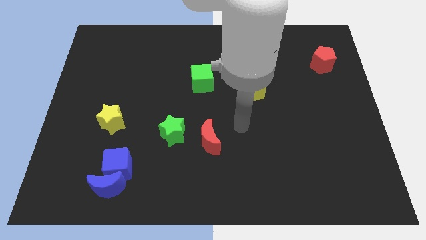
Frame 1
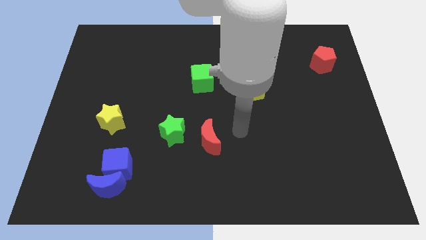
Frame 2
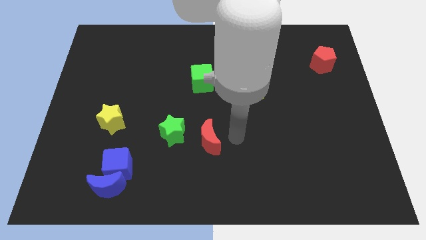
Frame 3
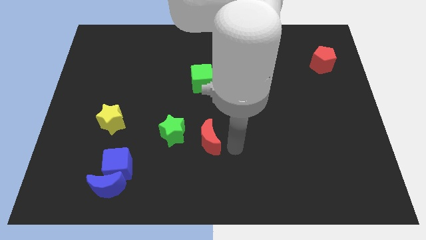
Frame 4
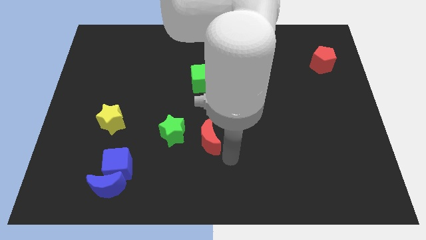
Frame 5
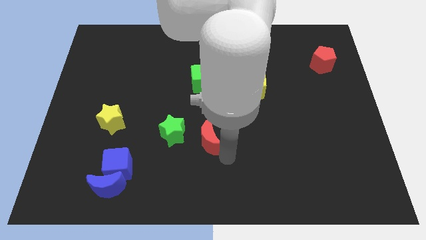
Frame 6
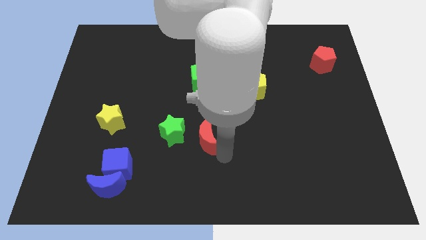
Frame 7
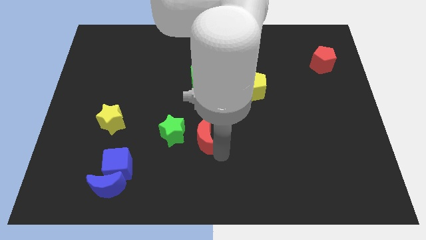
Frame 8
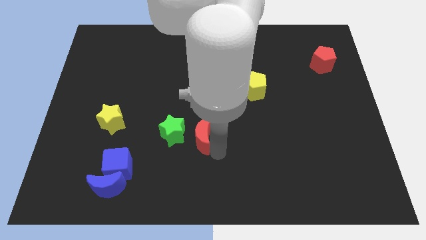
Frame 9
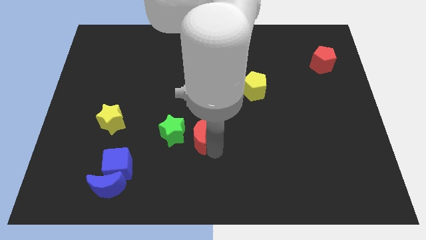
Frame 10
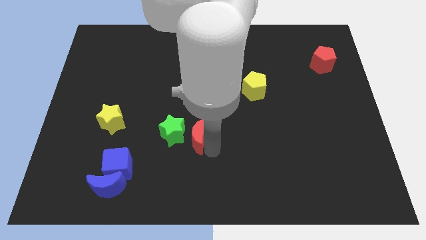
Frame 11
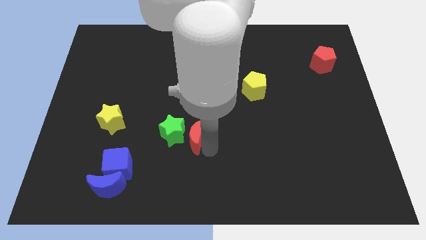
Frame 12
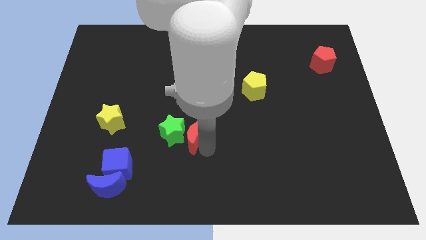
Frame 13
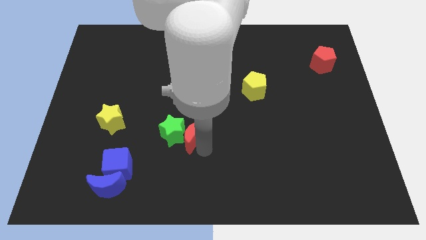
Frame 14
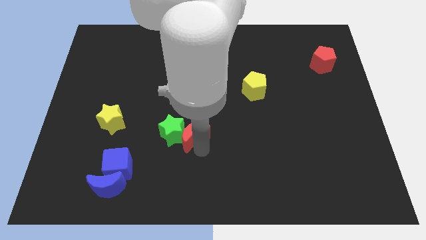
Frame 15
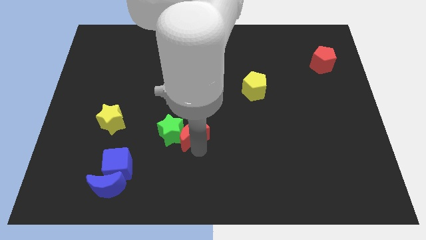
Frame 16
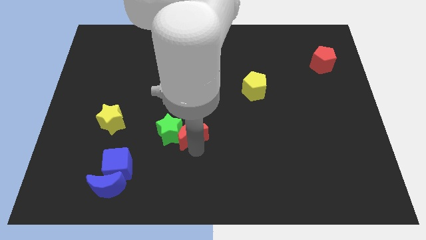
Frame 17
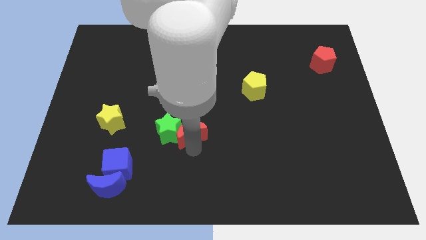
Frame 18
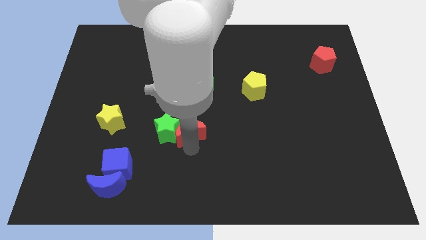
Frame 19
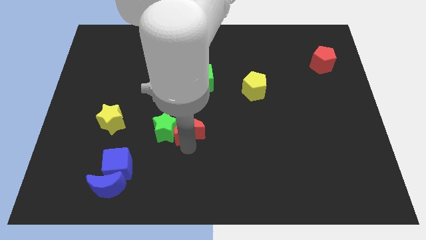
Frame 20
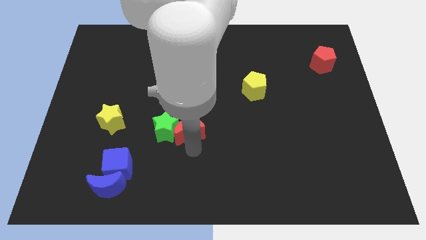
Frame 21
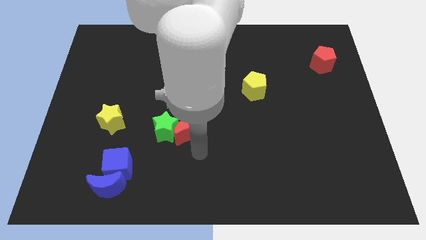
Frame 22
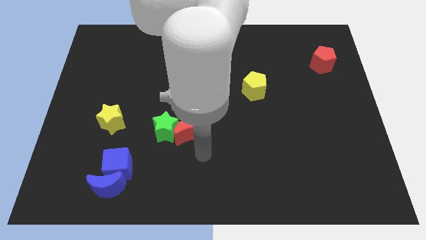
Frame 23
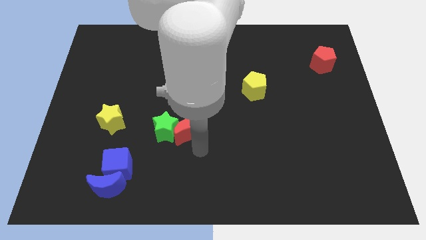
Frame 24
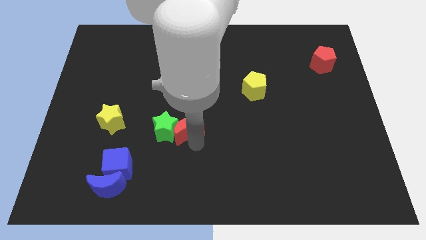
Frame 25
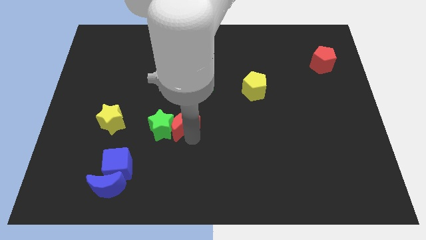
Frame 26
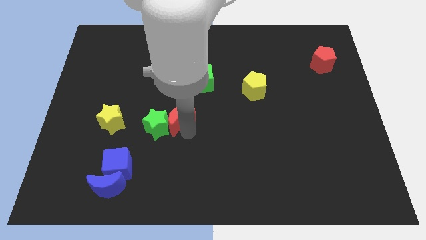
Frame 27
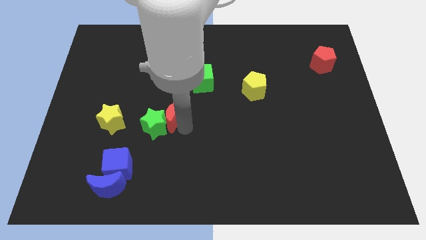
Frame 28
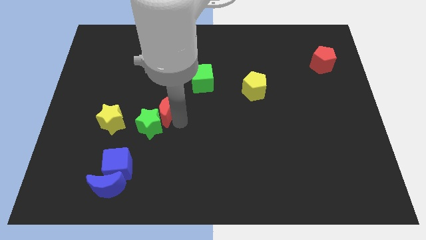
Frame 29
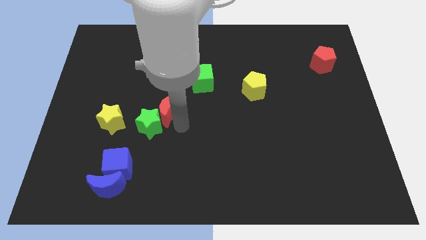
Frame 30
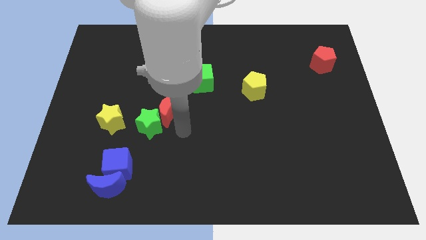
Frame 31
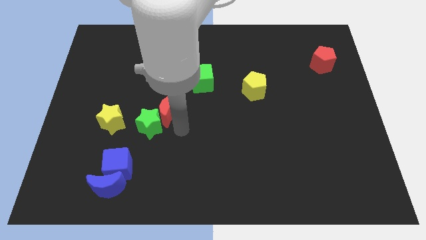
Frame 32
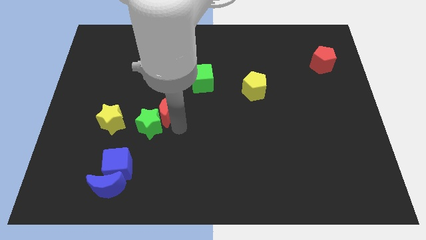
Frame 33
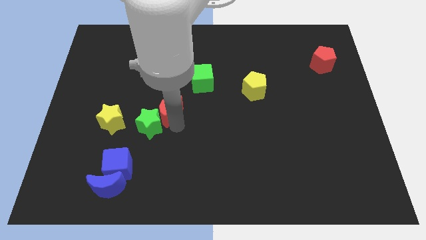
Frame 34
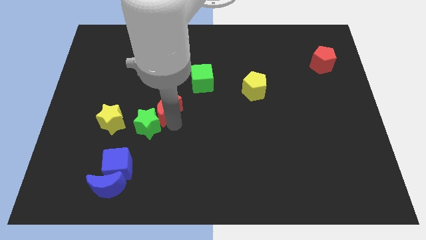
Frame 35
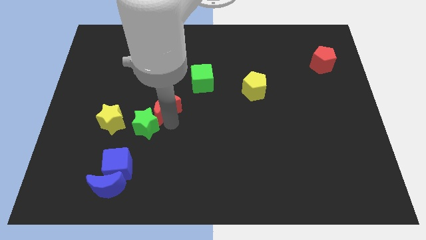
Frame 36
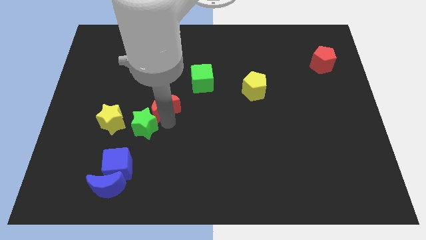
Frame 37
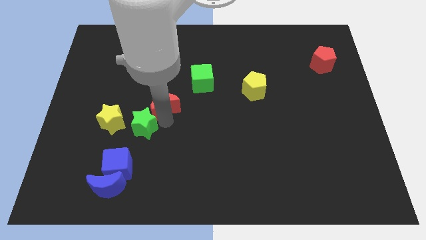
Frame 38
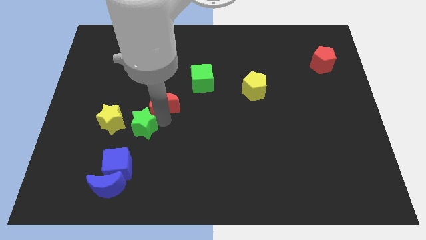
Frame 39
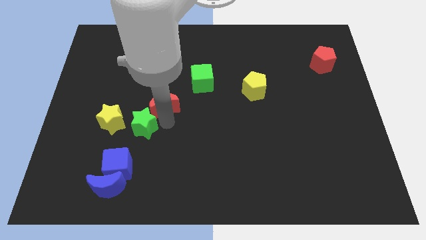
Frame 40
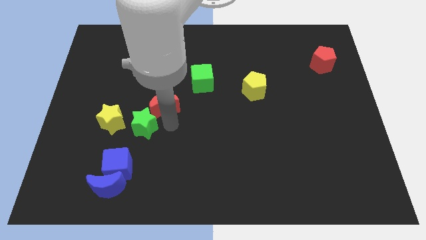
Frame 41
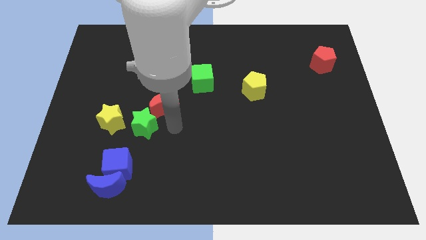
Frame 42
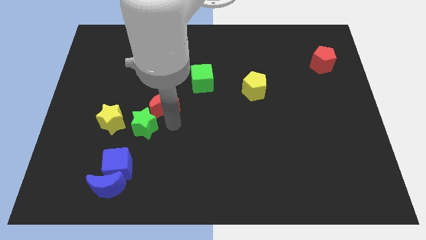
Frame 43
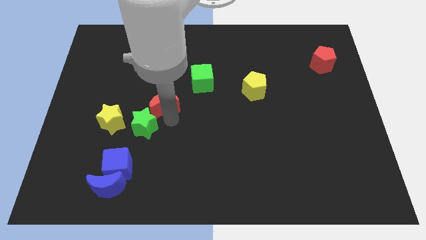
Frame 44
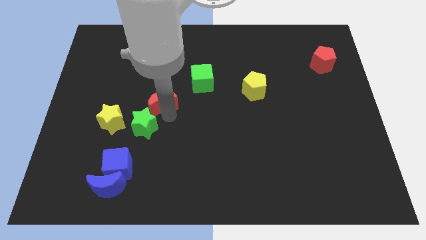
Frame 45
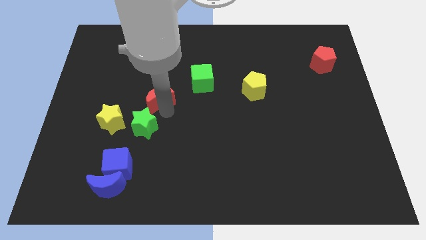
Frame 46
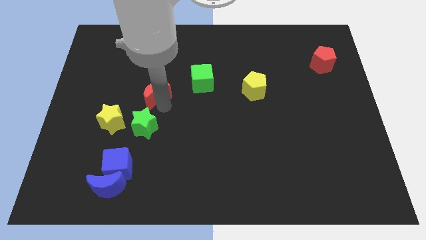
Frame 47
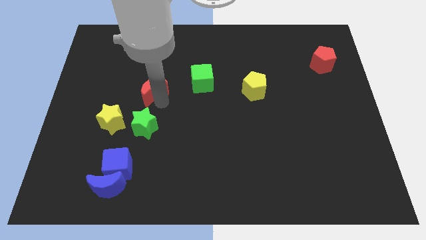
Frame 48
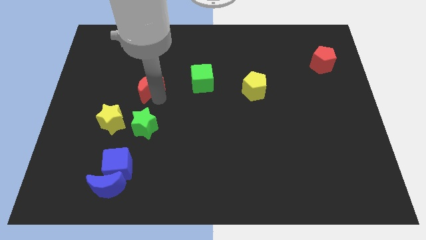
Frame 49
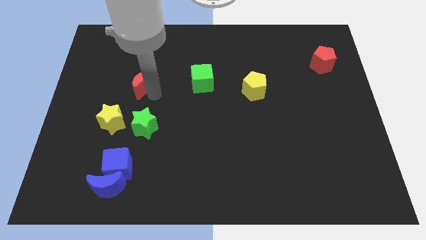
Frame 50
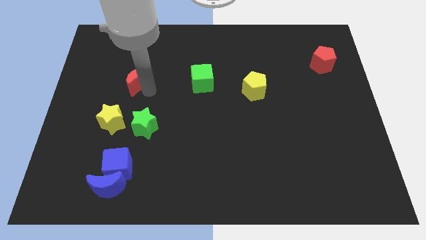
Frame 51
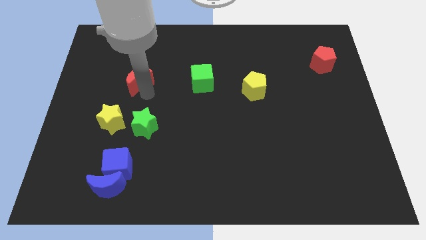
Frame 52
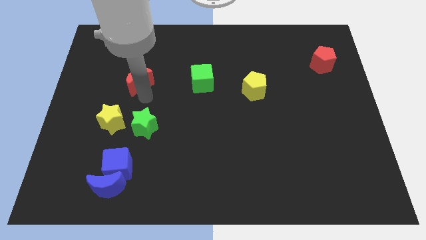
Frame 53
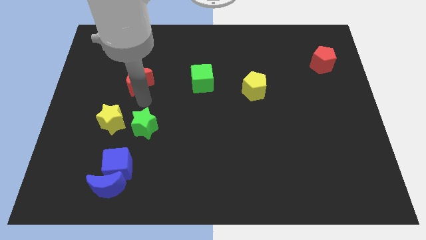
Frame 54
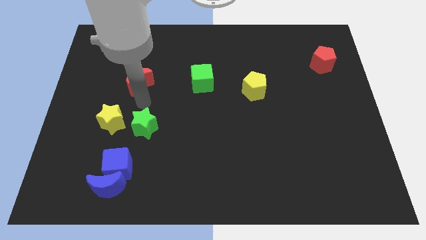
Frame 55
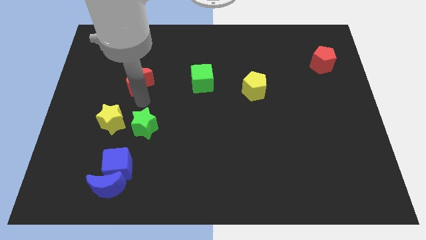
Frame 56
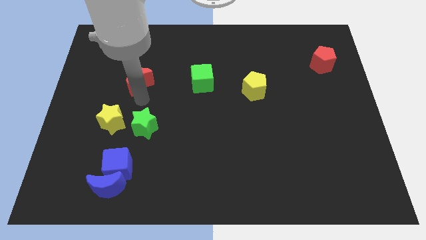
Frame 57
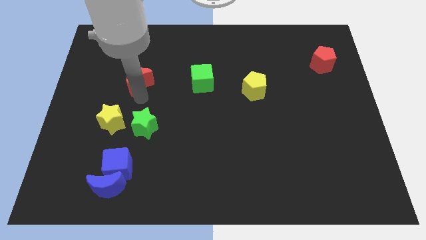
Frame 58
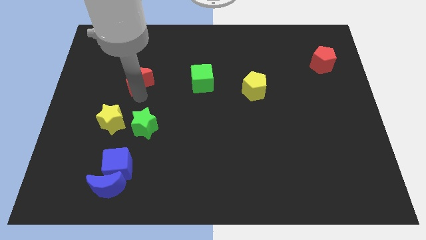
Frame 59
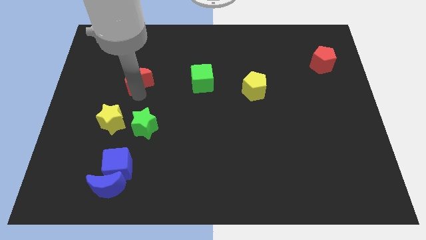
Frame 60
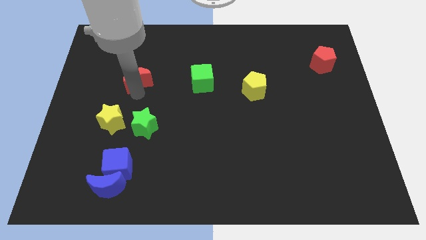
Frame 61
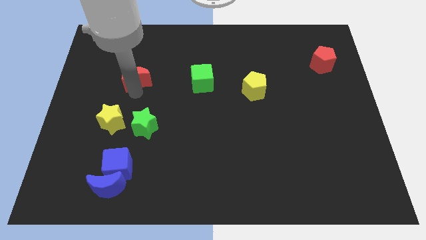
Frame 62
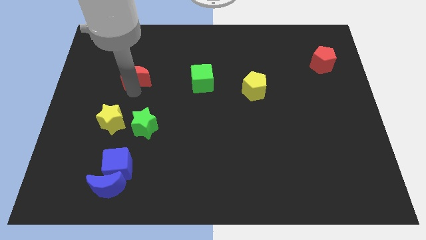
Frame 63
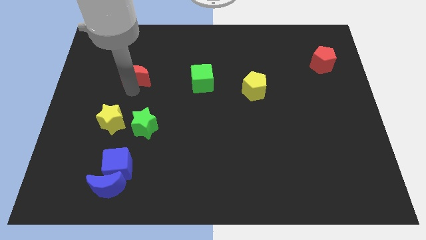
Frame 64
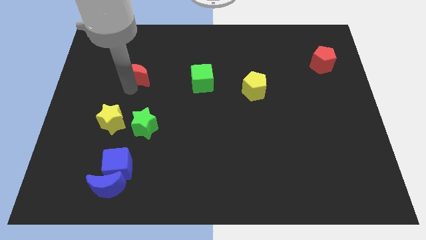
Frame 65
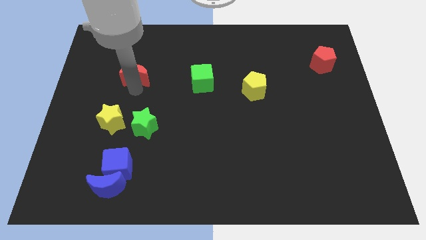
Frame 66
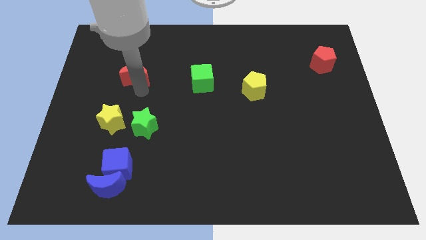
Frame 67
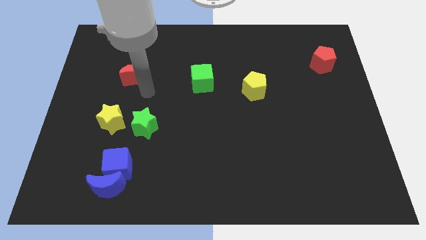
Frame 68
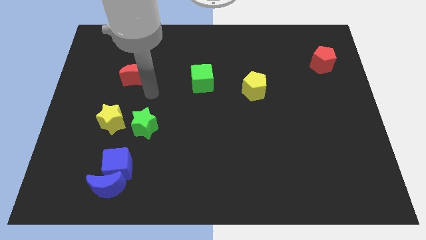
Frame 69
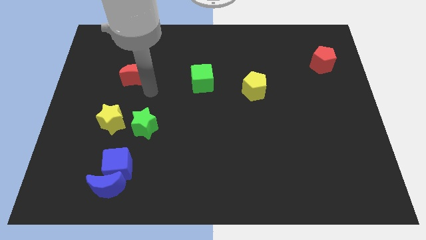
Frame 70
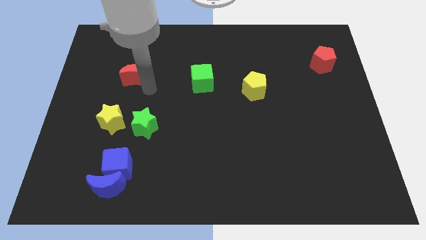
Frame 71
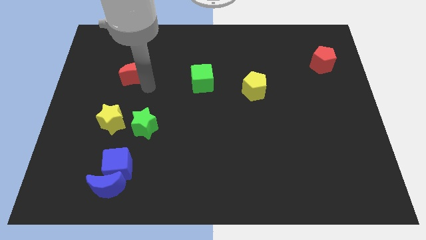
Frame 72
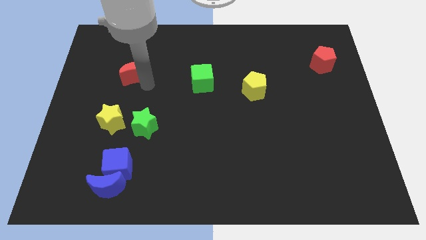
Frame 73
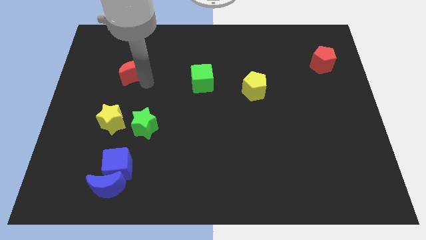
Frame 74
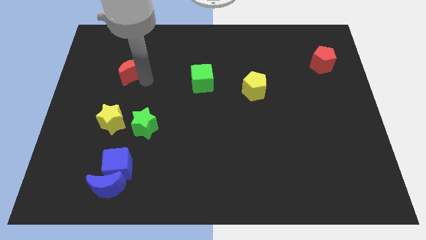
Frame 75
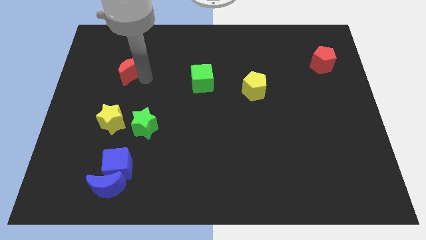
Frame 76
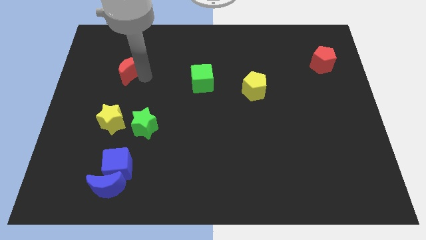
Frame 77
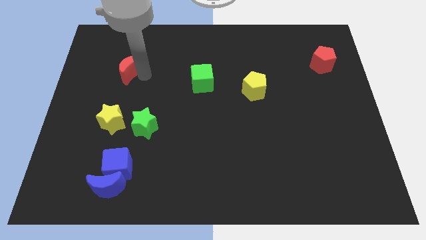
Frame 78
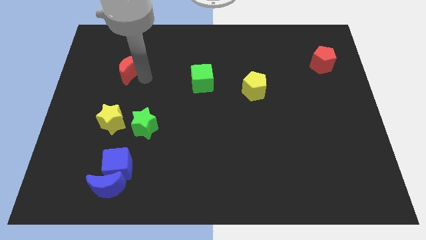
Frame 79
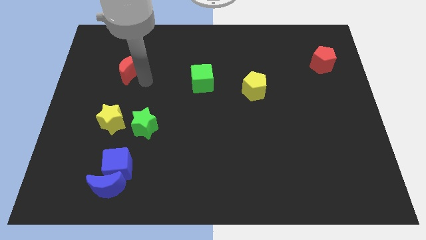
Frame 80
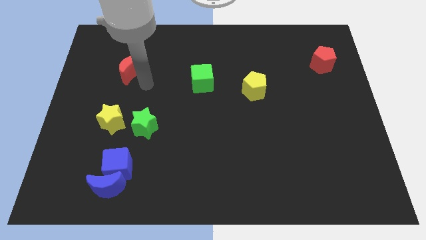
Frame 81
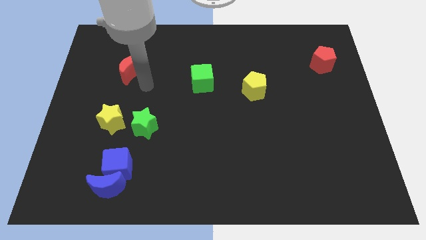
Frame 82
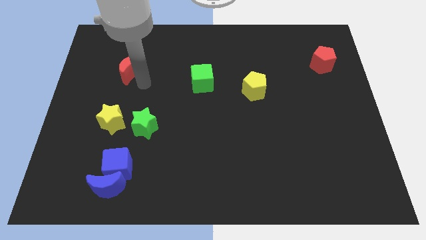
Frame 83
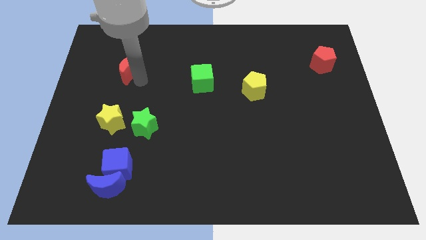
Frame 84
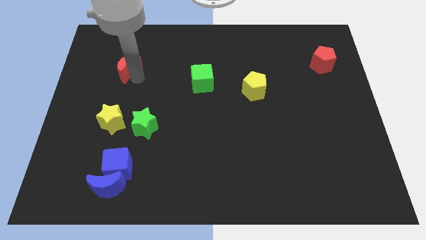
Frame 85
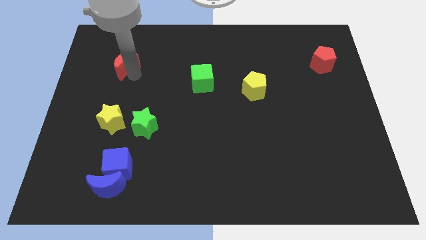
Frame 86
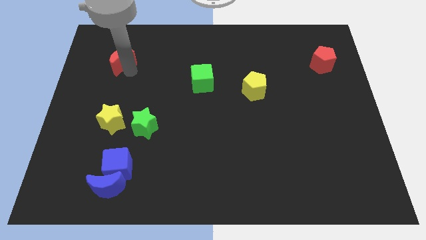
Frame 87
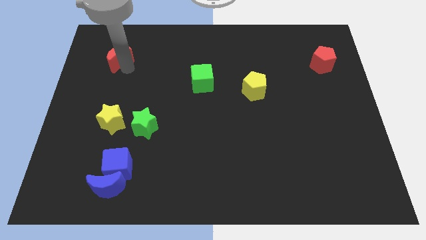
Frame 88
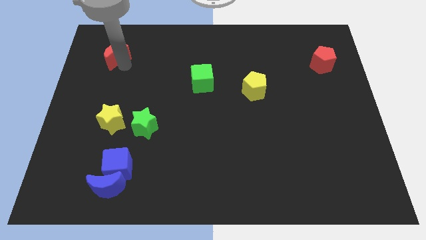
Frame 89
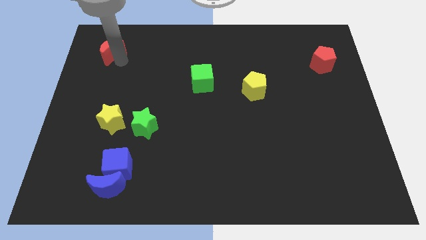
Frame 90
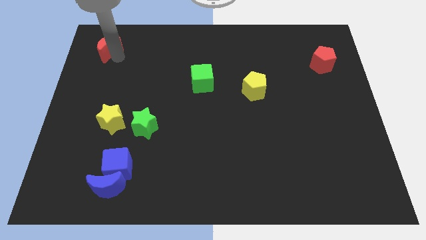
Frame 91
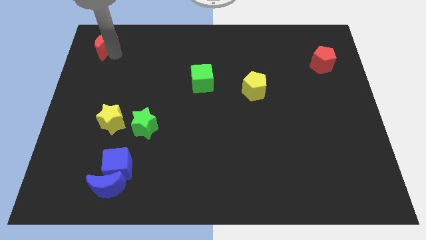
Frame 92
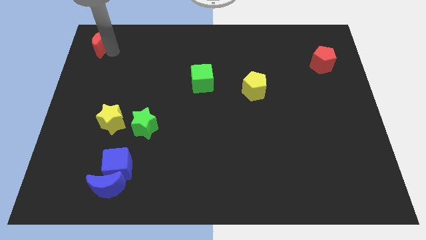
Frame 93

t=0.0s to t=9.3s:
push the red moon to the top left of the board
